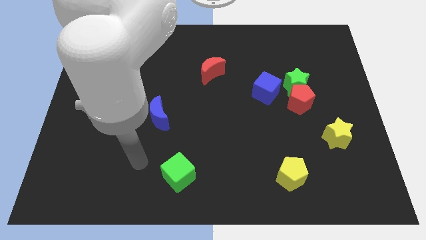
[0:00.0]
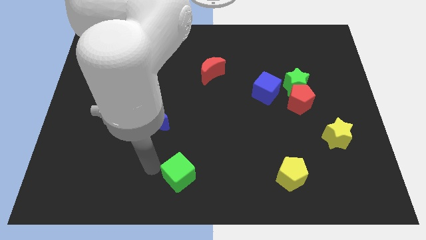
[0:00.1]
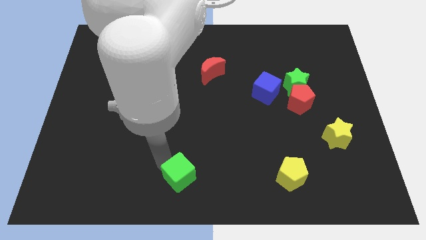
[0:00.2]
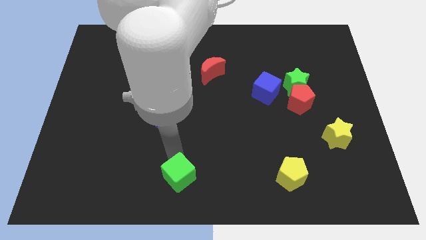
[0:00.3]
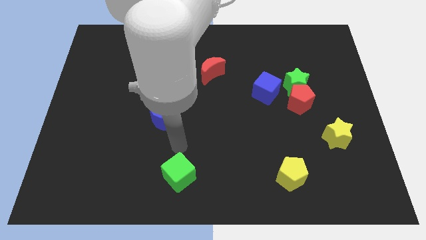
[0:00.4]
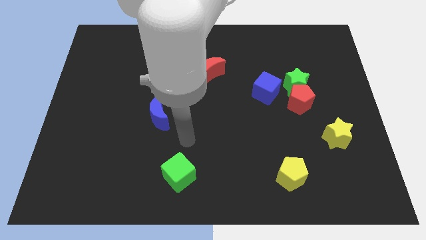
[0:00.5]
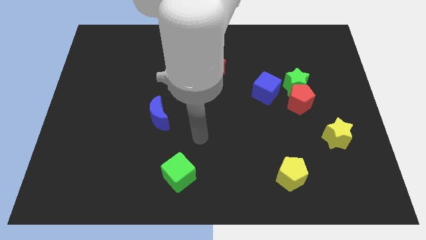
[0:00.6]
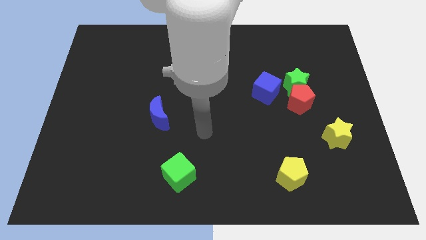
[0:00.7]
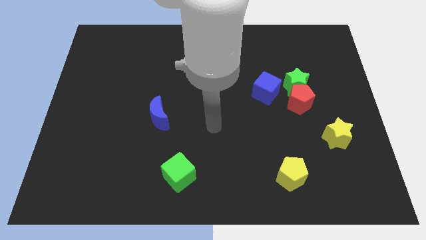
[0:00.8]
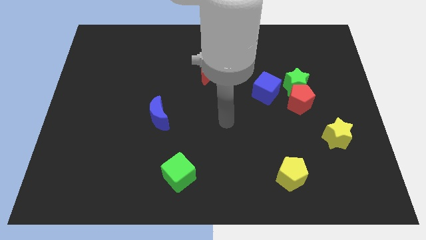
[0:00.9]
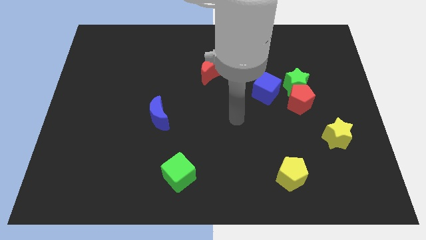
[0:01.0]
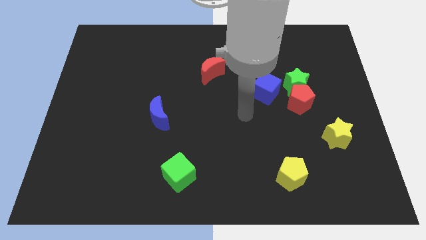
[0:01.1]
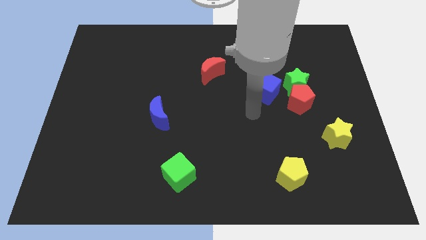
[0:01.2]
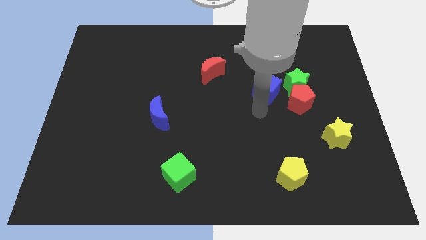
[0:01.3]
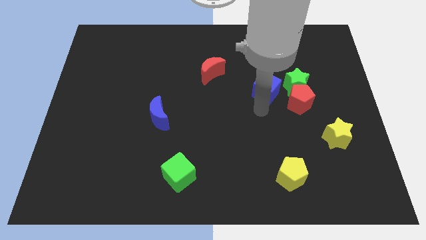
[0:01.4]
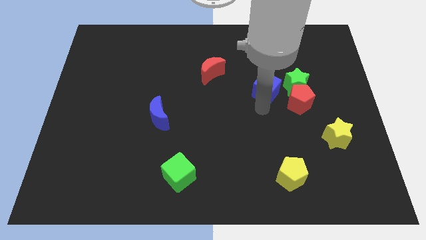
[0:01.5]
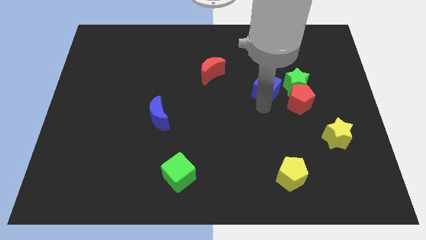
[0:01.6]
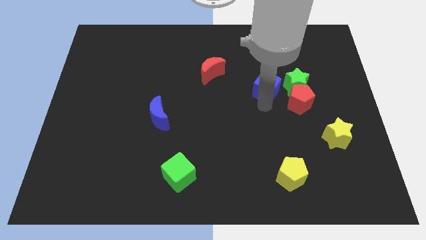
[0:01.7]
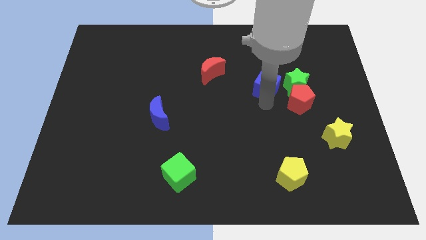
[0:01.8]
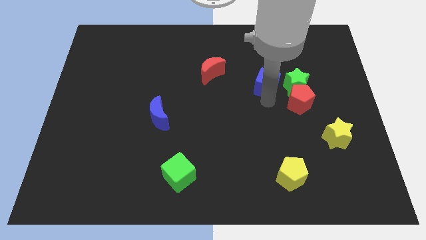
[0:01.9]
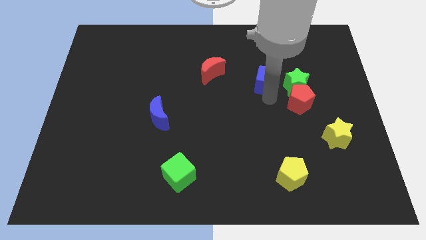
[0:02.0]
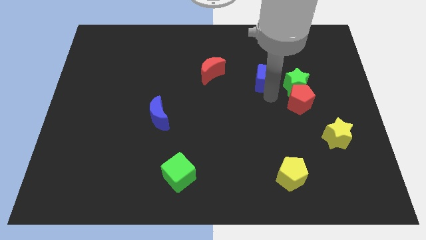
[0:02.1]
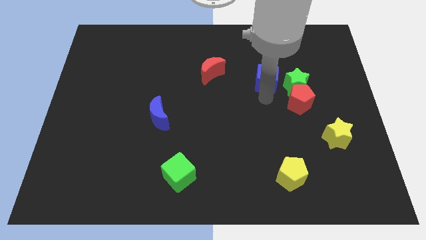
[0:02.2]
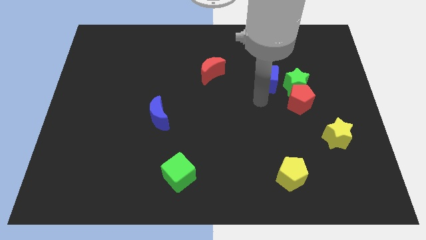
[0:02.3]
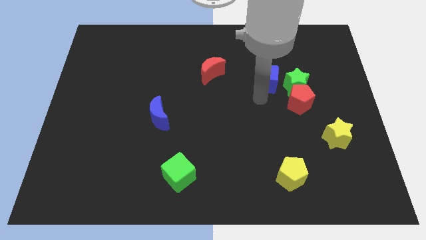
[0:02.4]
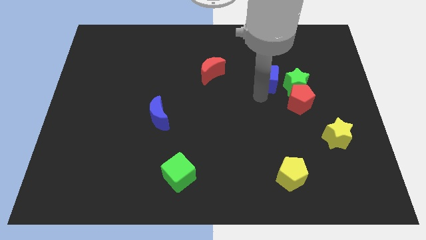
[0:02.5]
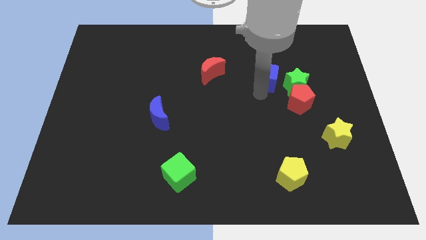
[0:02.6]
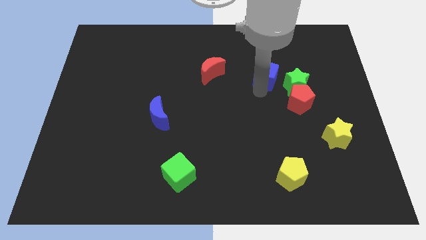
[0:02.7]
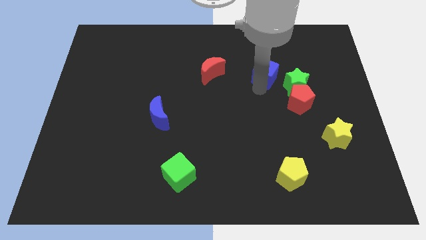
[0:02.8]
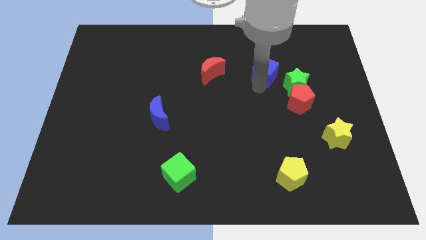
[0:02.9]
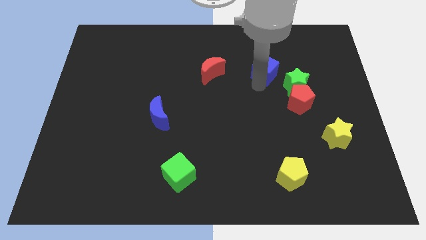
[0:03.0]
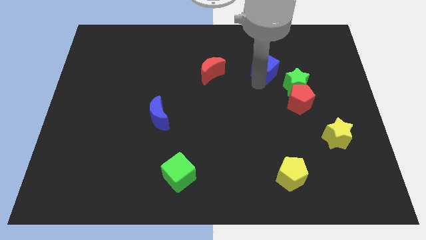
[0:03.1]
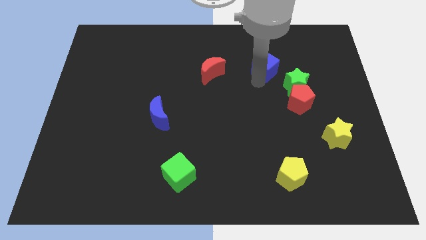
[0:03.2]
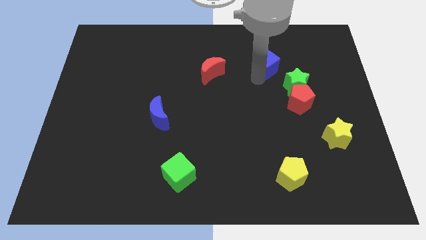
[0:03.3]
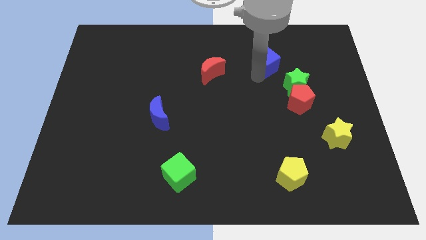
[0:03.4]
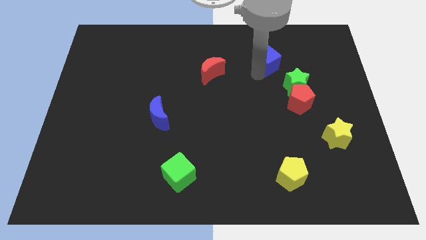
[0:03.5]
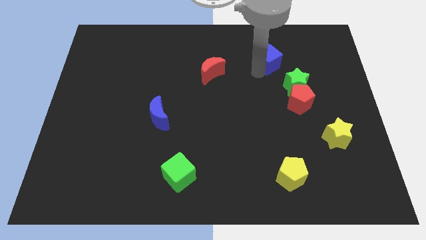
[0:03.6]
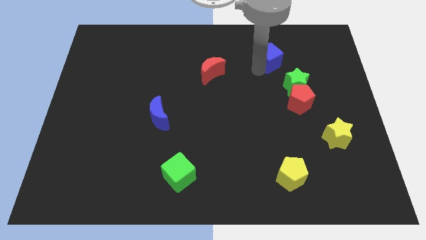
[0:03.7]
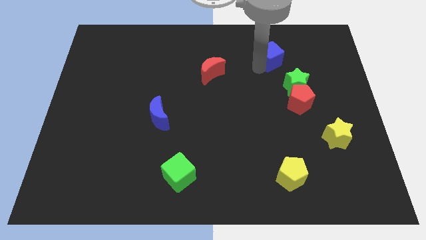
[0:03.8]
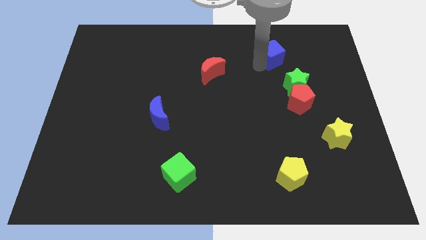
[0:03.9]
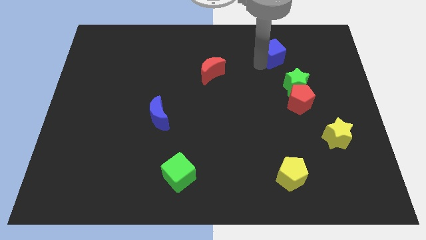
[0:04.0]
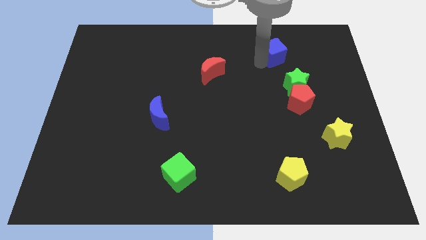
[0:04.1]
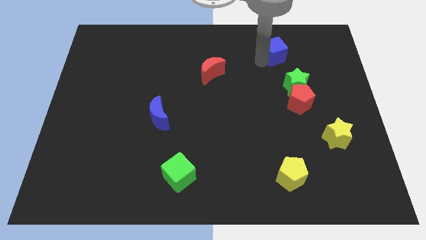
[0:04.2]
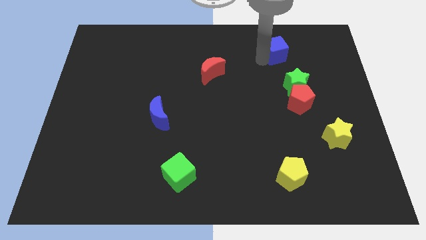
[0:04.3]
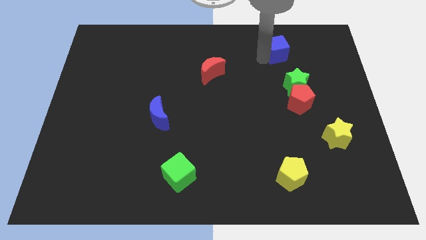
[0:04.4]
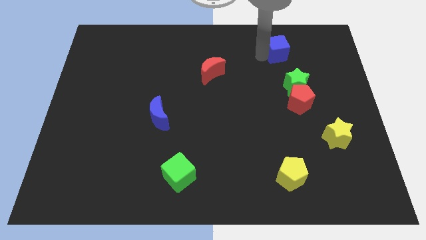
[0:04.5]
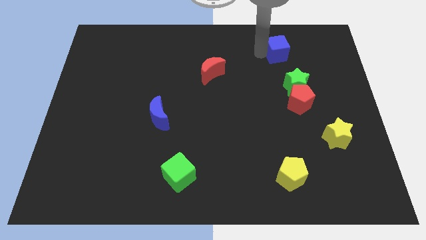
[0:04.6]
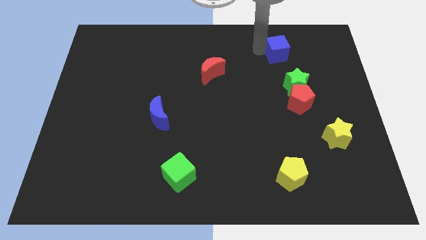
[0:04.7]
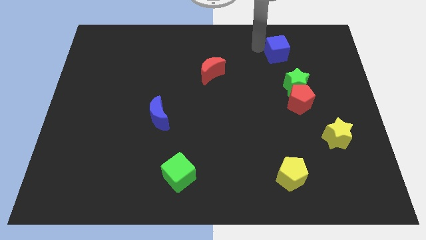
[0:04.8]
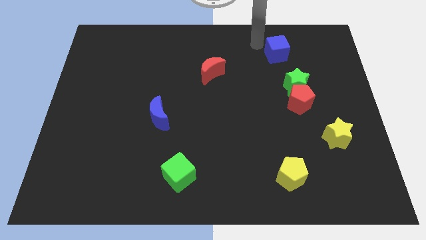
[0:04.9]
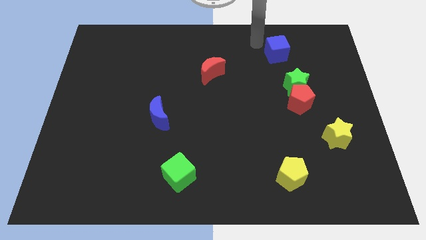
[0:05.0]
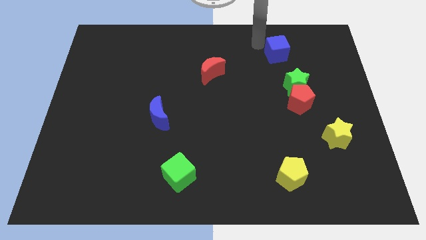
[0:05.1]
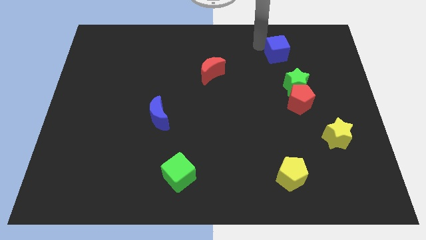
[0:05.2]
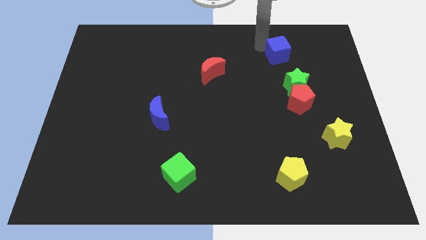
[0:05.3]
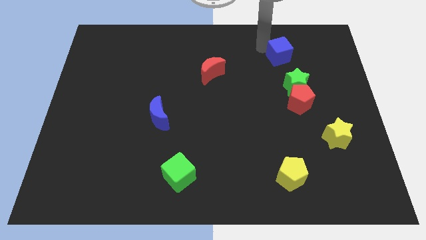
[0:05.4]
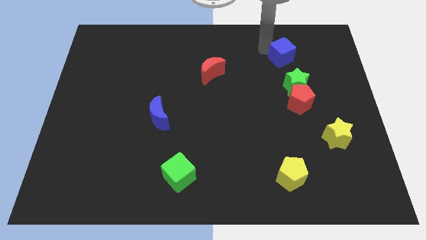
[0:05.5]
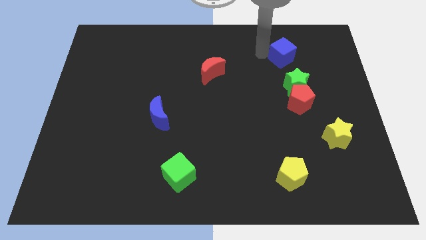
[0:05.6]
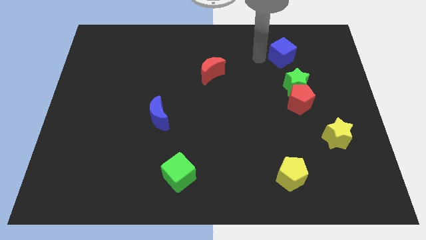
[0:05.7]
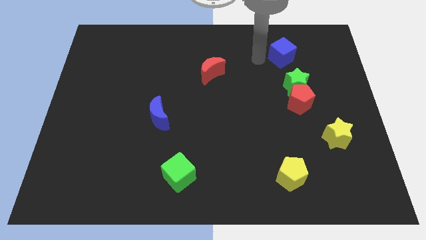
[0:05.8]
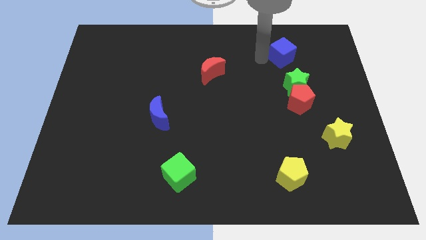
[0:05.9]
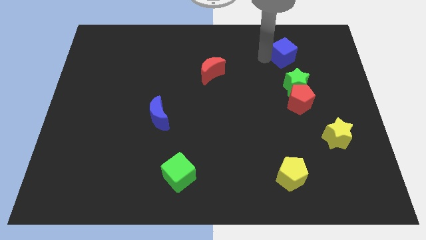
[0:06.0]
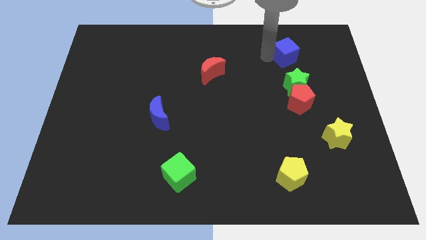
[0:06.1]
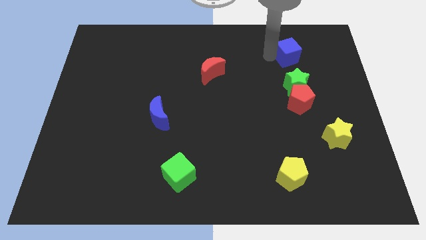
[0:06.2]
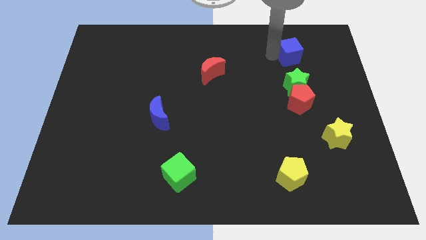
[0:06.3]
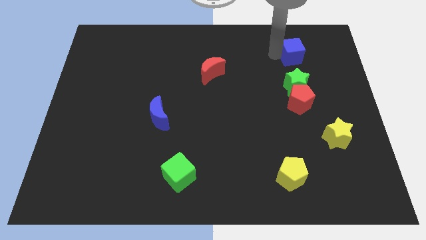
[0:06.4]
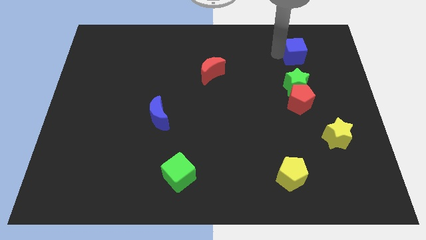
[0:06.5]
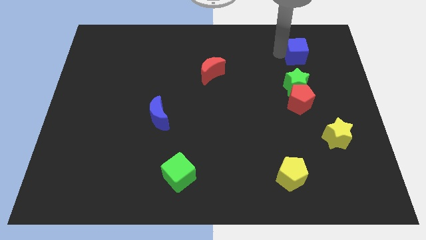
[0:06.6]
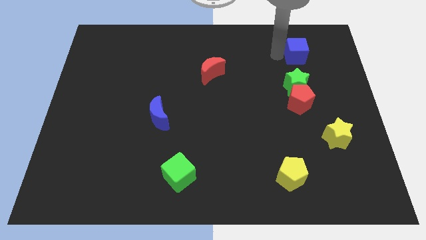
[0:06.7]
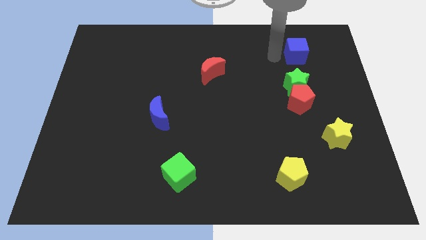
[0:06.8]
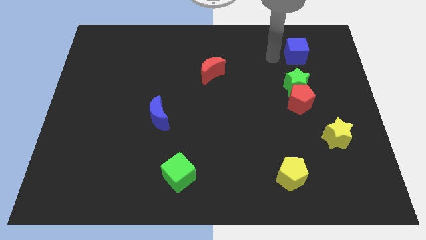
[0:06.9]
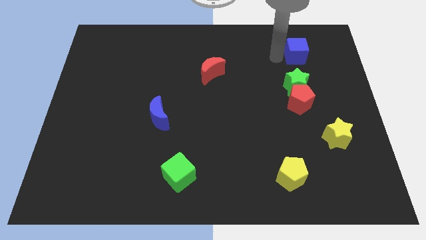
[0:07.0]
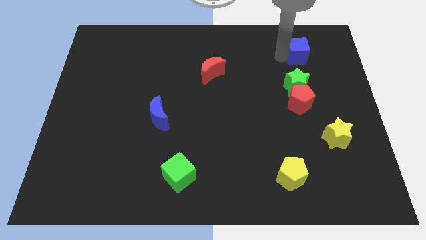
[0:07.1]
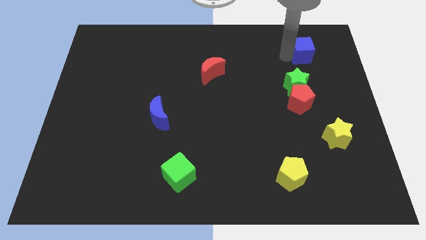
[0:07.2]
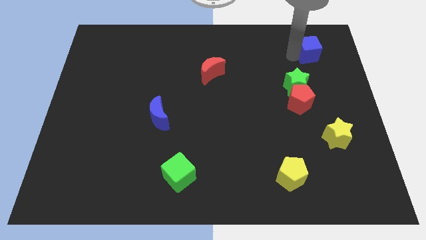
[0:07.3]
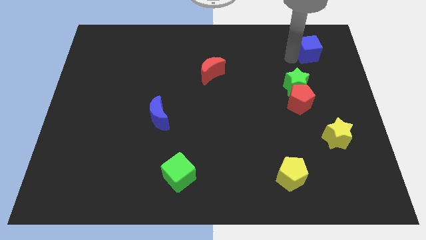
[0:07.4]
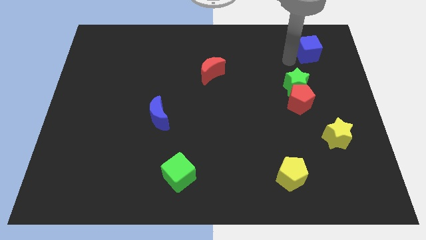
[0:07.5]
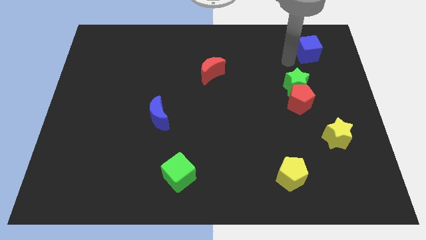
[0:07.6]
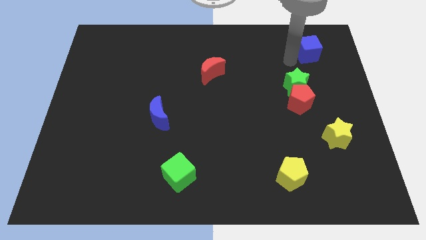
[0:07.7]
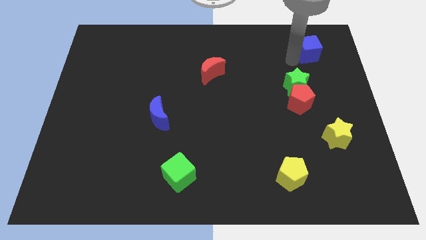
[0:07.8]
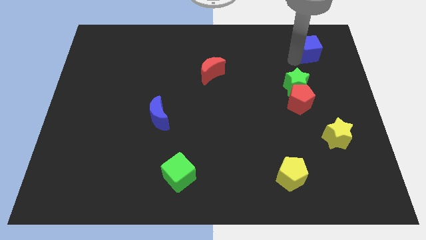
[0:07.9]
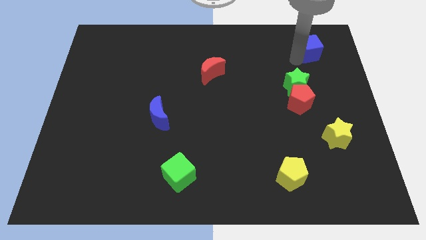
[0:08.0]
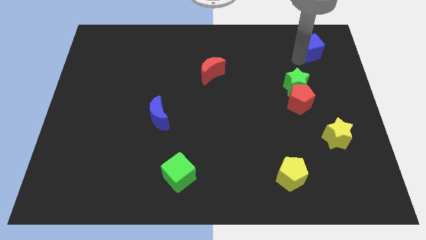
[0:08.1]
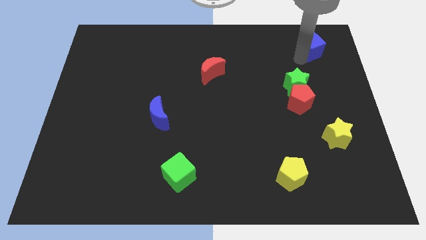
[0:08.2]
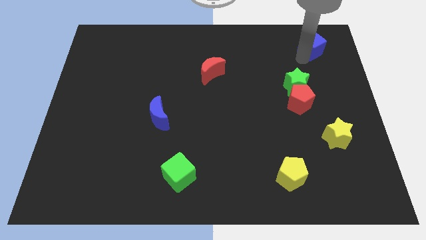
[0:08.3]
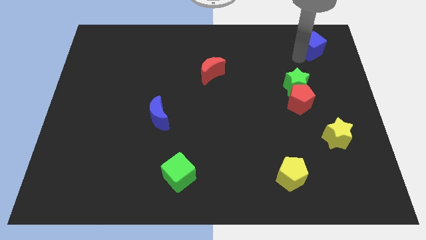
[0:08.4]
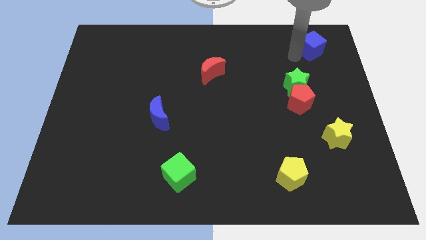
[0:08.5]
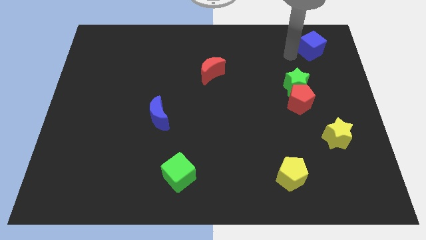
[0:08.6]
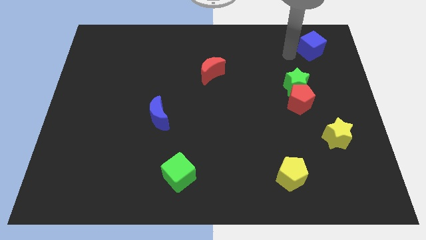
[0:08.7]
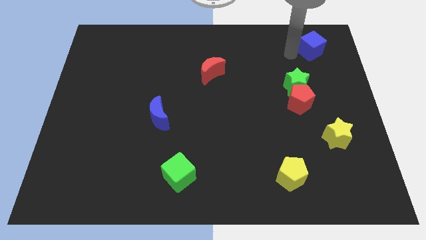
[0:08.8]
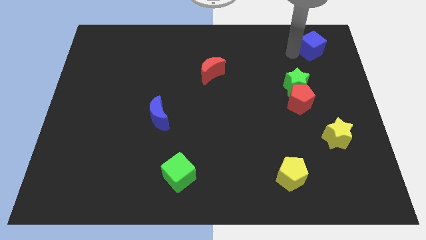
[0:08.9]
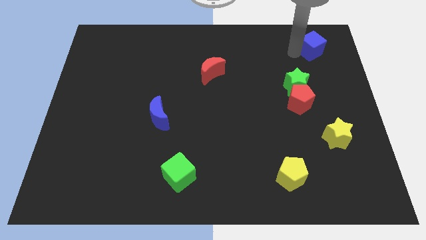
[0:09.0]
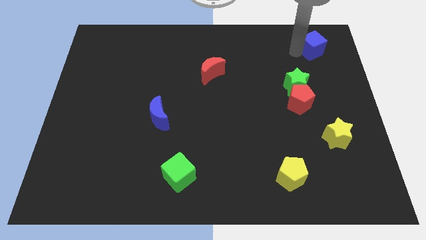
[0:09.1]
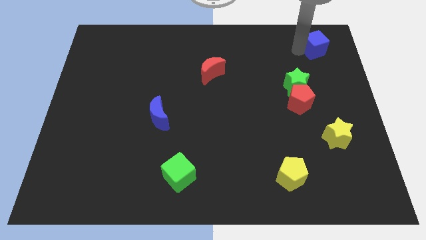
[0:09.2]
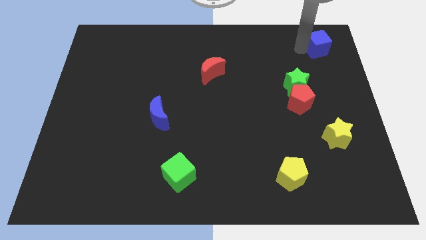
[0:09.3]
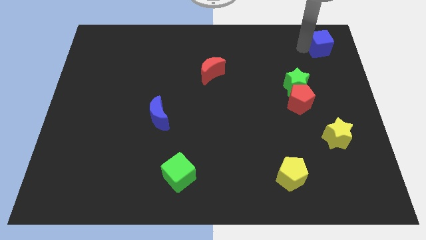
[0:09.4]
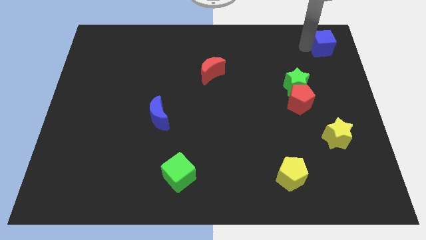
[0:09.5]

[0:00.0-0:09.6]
slide the blue cube to the top right corner
